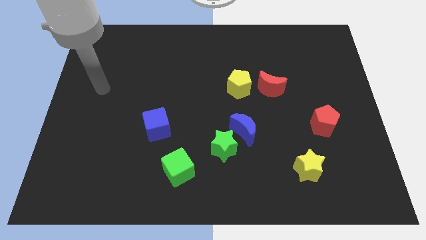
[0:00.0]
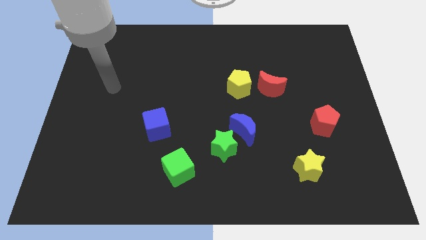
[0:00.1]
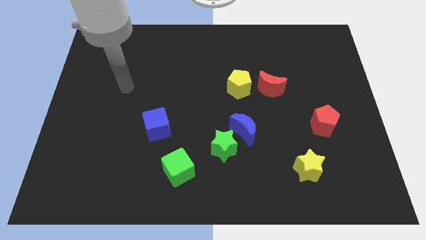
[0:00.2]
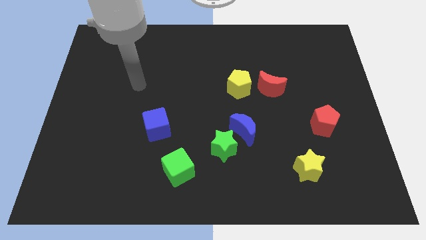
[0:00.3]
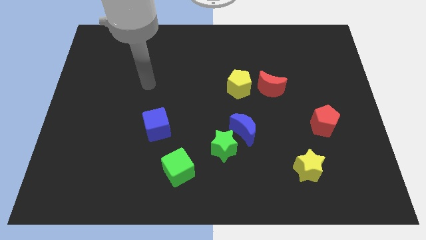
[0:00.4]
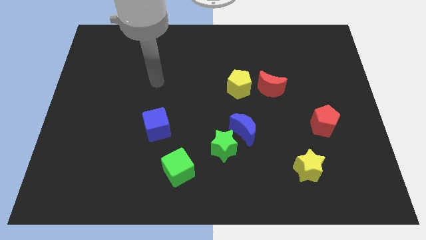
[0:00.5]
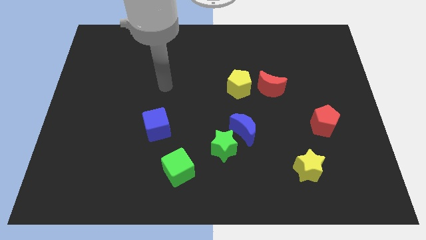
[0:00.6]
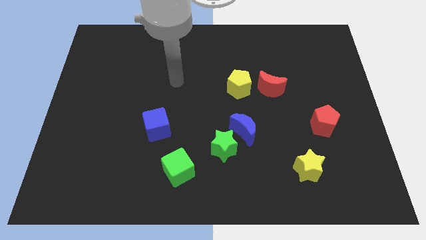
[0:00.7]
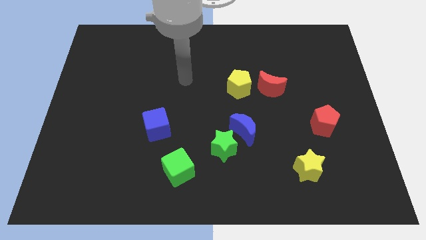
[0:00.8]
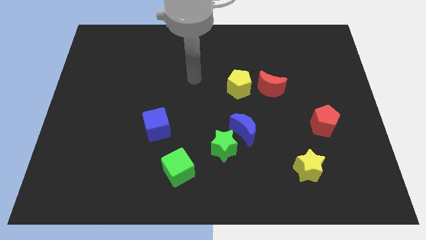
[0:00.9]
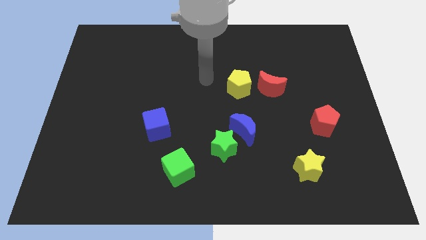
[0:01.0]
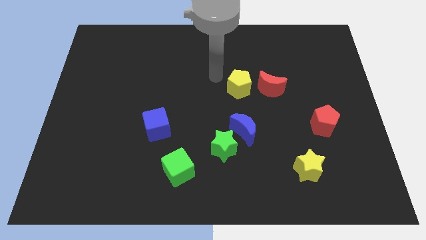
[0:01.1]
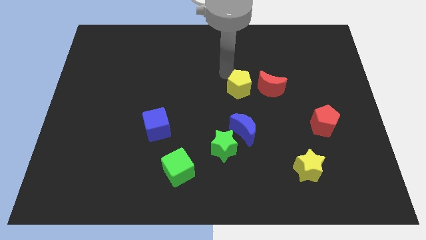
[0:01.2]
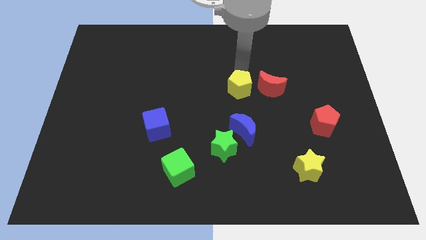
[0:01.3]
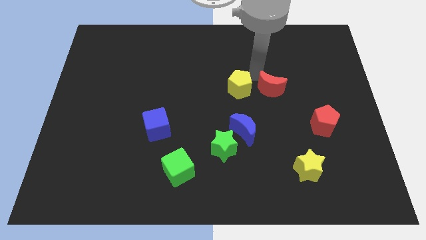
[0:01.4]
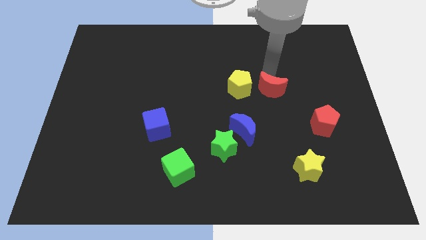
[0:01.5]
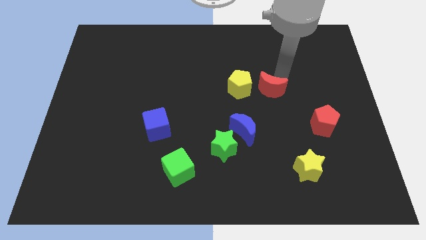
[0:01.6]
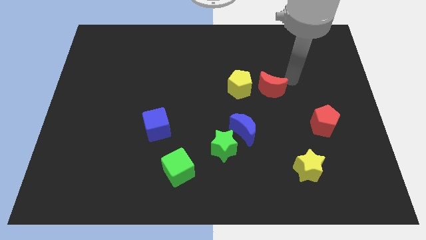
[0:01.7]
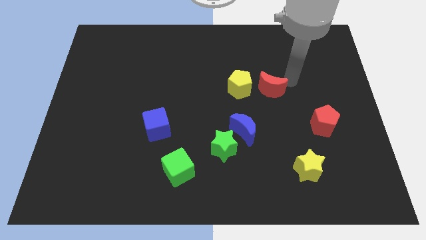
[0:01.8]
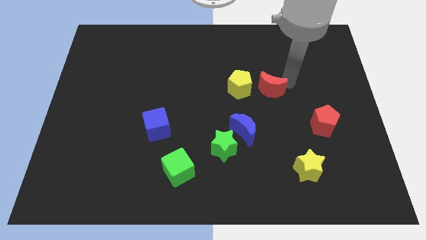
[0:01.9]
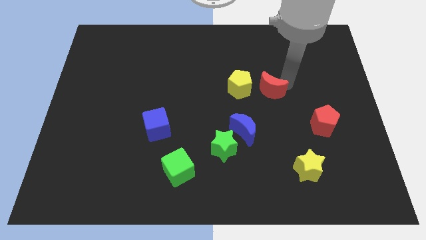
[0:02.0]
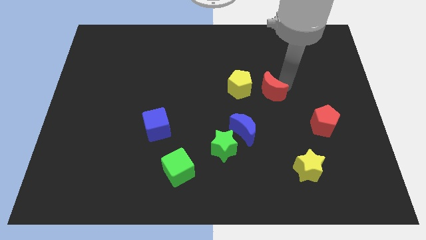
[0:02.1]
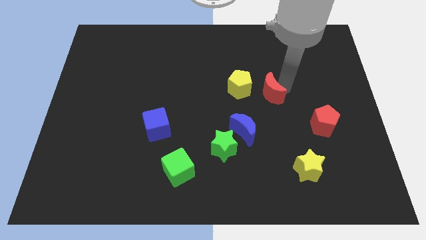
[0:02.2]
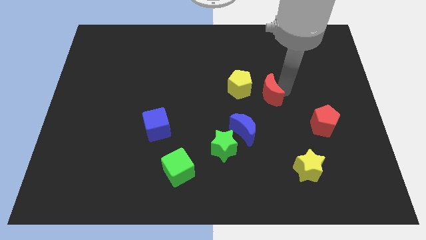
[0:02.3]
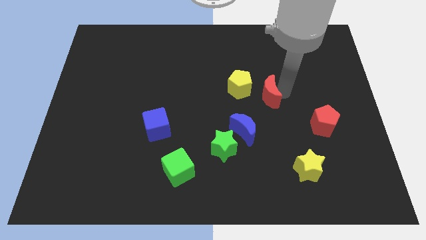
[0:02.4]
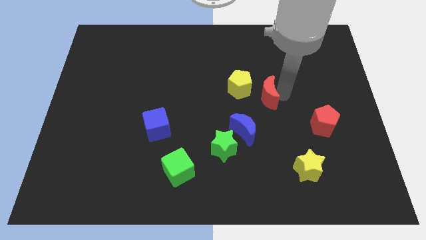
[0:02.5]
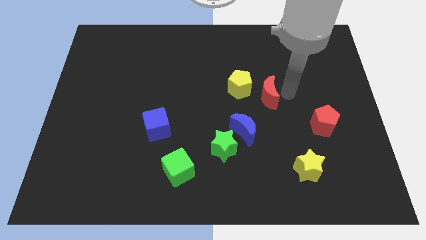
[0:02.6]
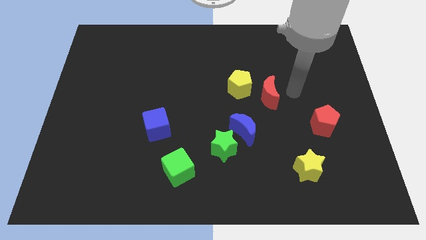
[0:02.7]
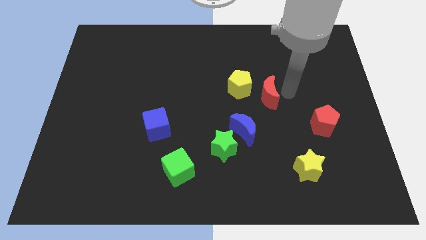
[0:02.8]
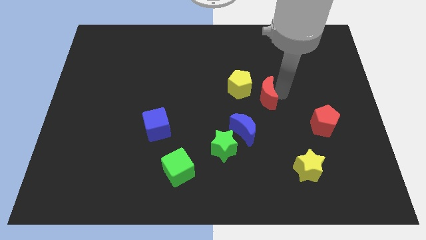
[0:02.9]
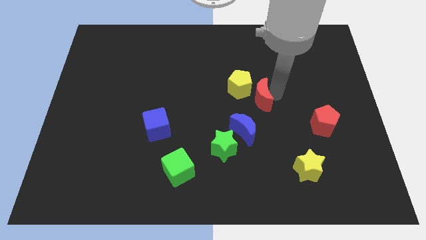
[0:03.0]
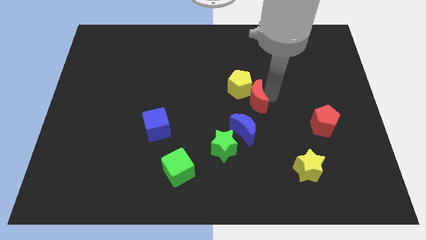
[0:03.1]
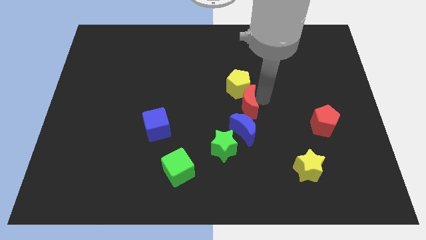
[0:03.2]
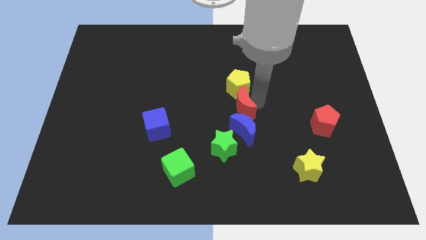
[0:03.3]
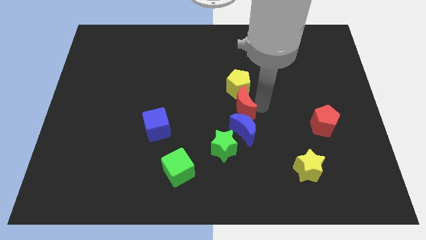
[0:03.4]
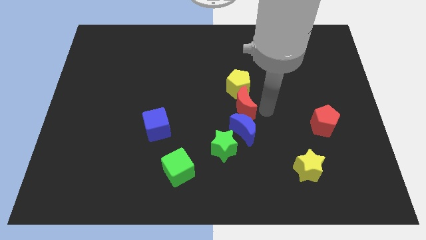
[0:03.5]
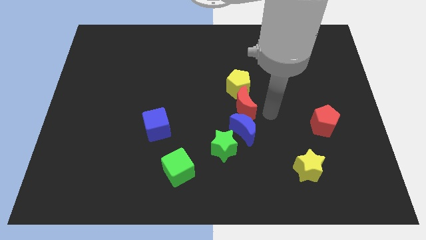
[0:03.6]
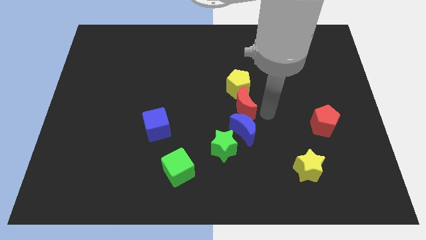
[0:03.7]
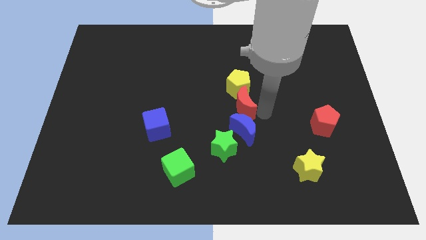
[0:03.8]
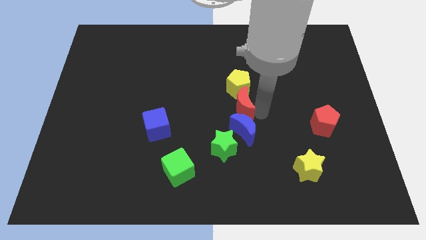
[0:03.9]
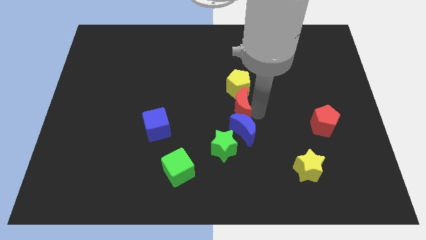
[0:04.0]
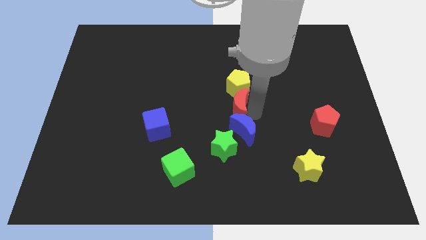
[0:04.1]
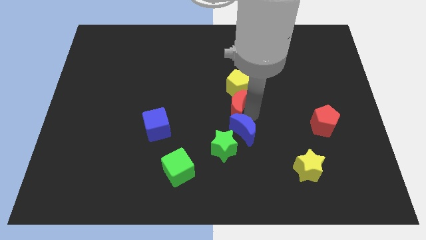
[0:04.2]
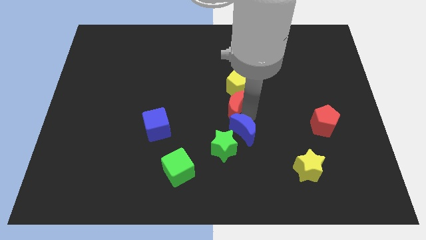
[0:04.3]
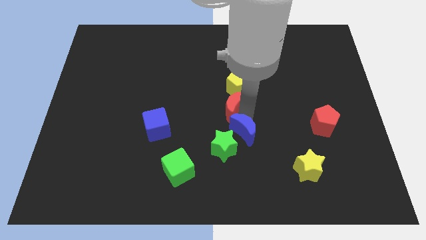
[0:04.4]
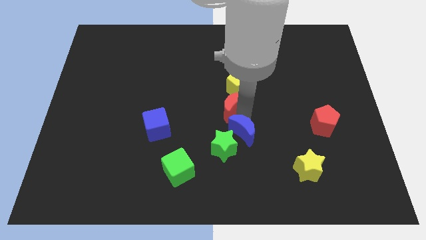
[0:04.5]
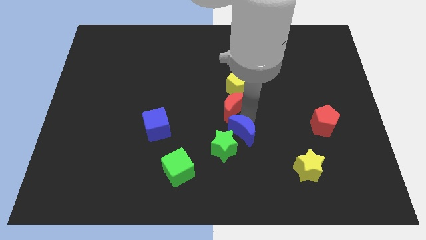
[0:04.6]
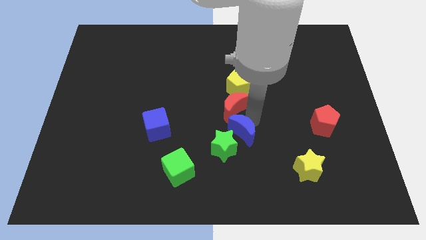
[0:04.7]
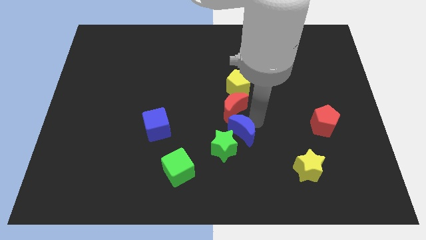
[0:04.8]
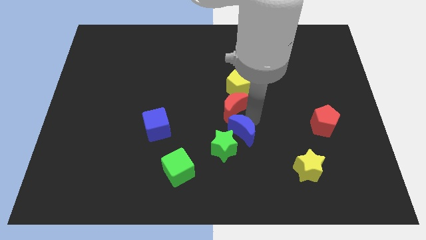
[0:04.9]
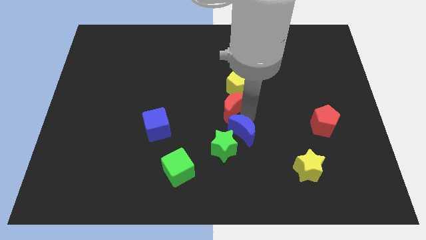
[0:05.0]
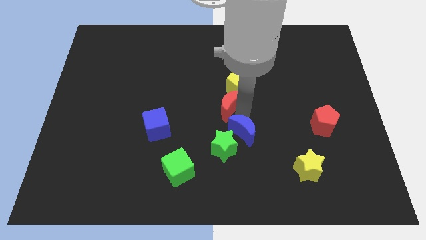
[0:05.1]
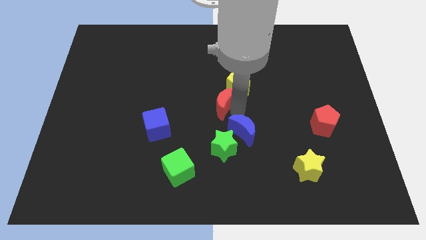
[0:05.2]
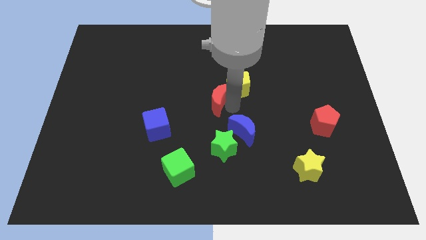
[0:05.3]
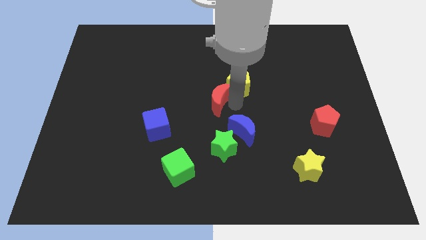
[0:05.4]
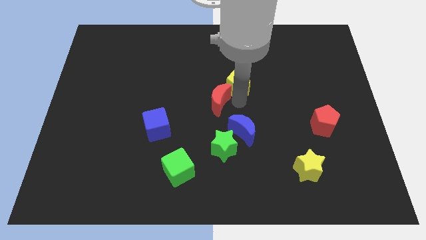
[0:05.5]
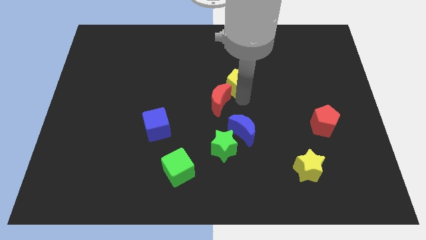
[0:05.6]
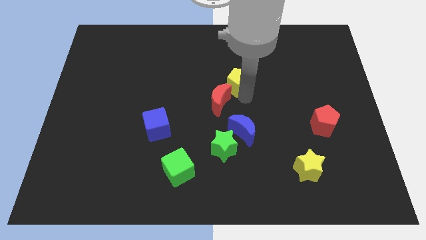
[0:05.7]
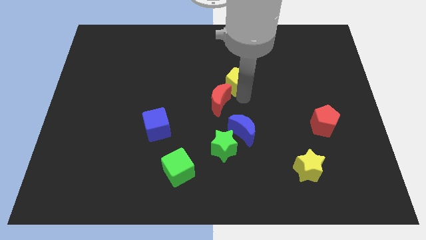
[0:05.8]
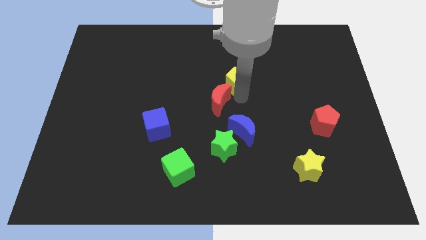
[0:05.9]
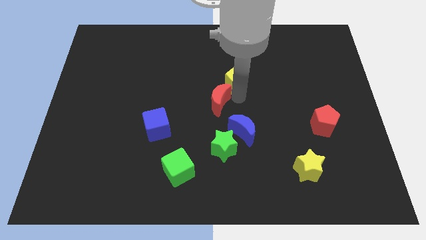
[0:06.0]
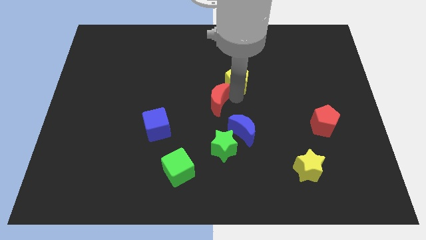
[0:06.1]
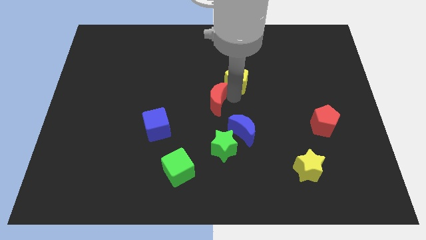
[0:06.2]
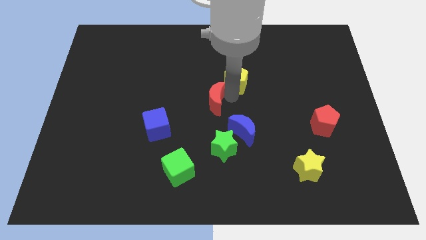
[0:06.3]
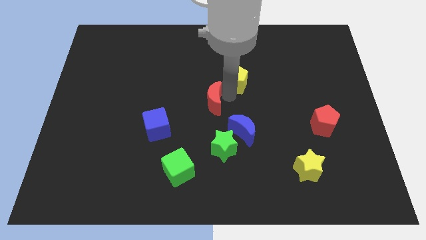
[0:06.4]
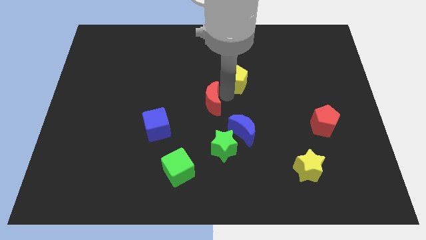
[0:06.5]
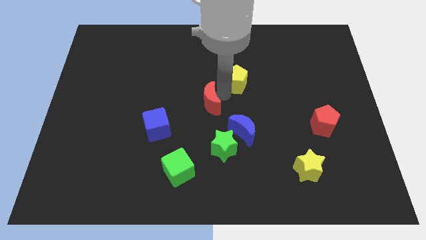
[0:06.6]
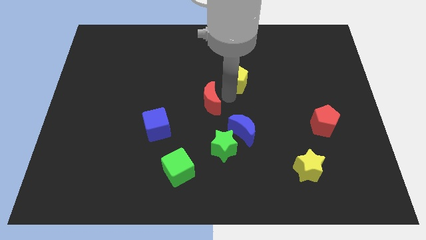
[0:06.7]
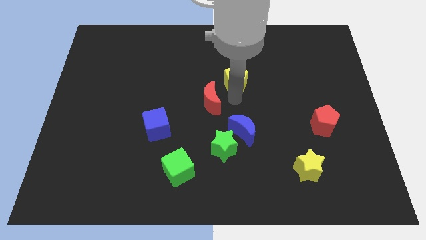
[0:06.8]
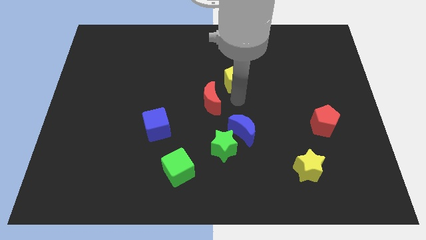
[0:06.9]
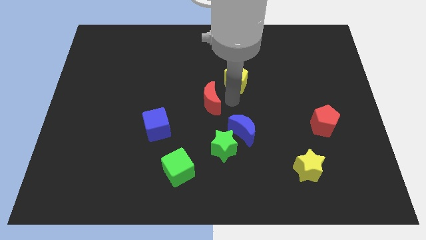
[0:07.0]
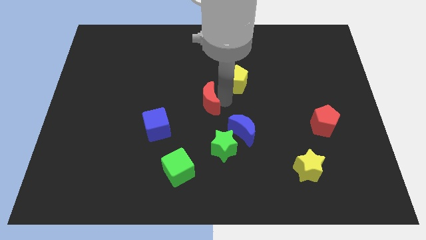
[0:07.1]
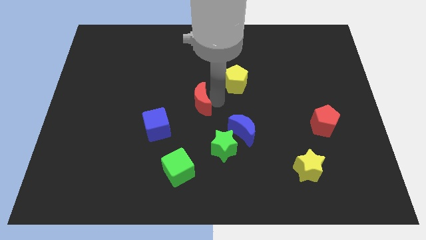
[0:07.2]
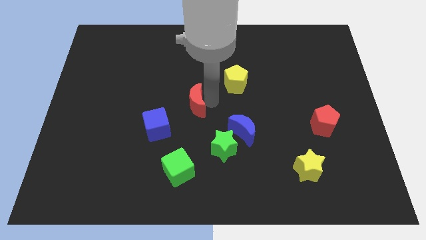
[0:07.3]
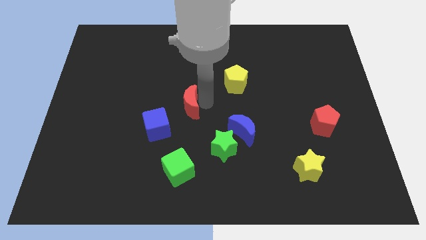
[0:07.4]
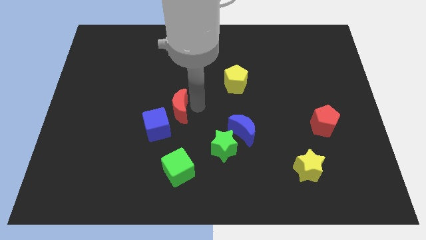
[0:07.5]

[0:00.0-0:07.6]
move the red moon left
